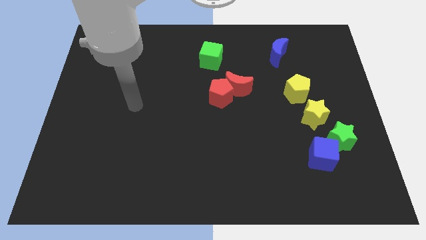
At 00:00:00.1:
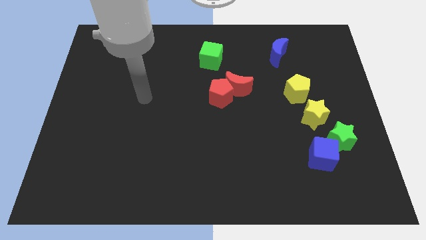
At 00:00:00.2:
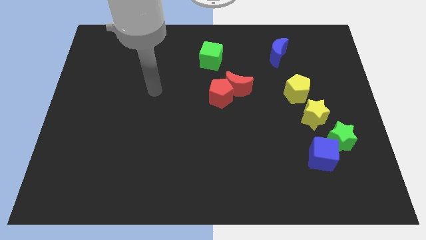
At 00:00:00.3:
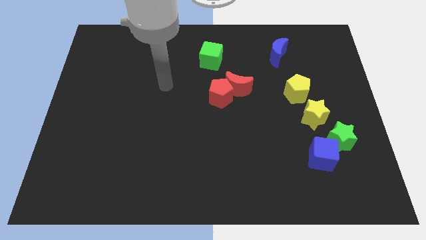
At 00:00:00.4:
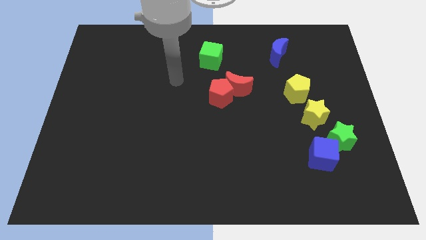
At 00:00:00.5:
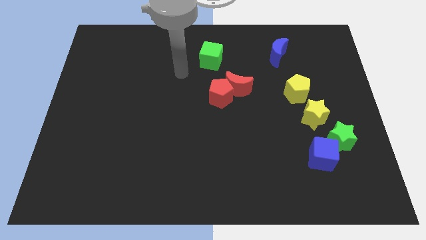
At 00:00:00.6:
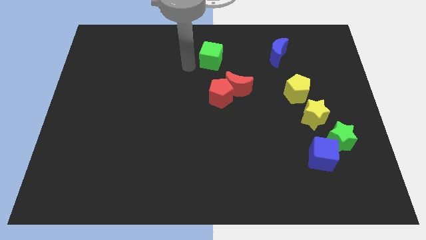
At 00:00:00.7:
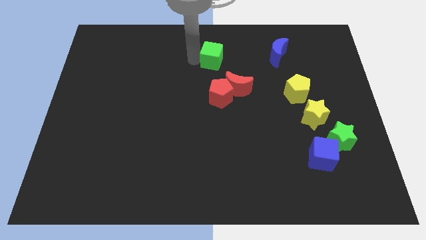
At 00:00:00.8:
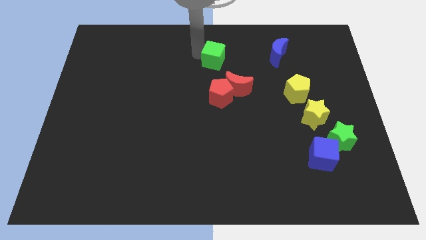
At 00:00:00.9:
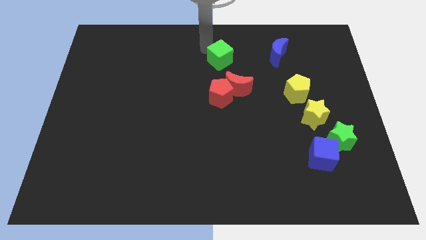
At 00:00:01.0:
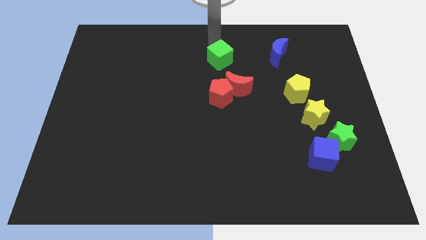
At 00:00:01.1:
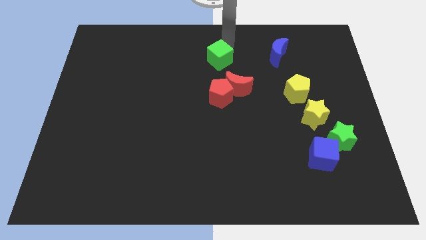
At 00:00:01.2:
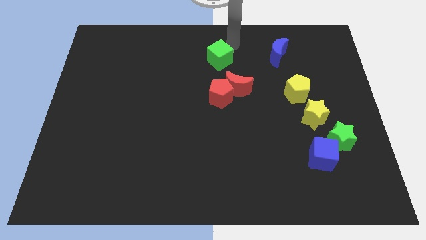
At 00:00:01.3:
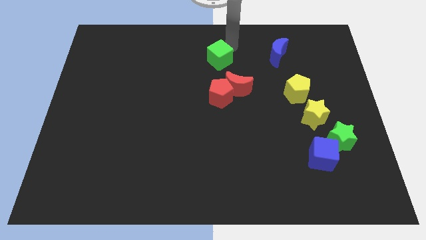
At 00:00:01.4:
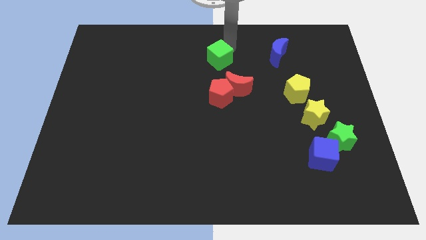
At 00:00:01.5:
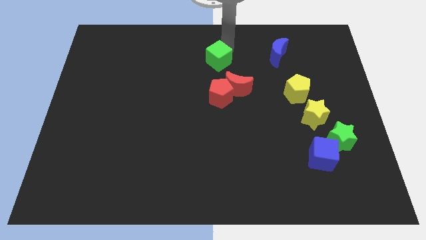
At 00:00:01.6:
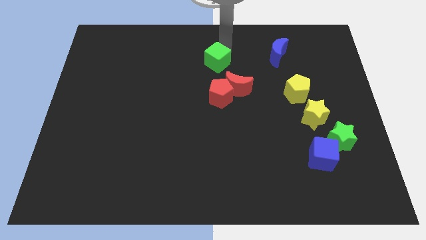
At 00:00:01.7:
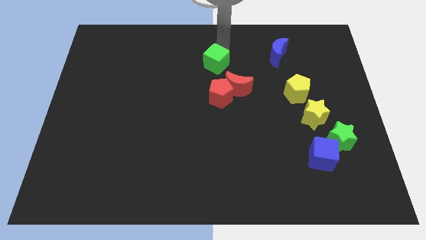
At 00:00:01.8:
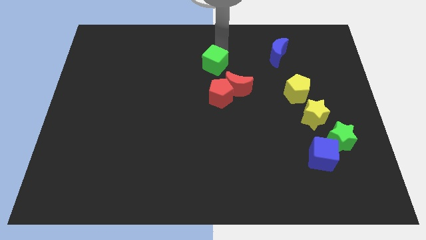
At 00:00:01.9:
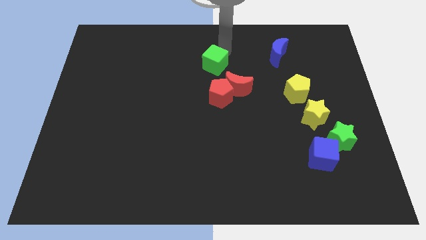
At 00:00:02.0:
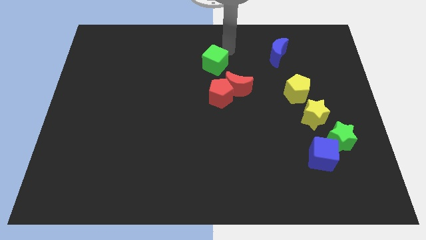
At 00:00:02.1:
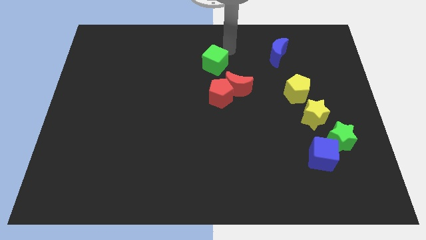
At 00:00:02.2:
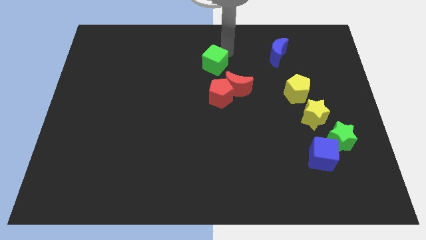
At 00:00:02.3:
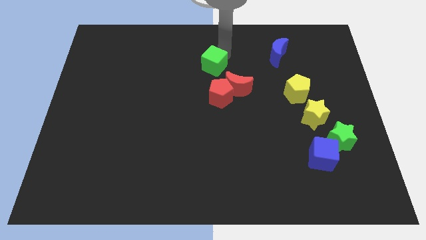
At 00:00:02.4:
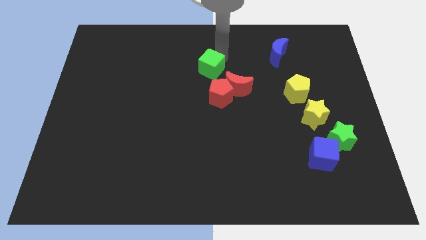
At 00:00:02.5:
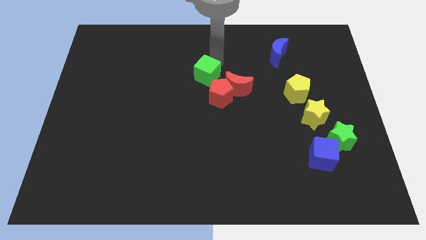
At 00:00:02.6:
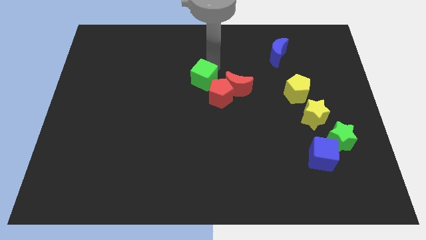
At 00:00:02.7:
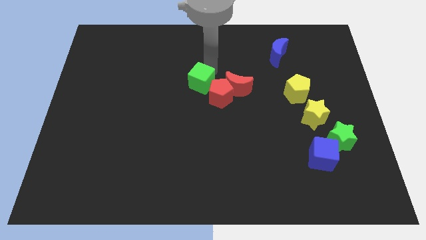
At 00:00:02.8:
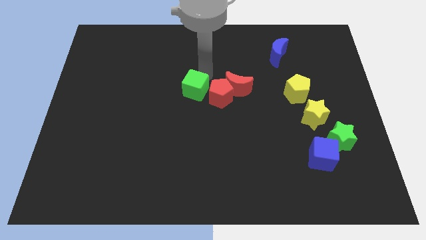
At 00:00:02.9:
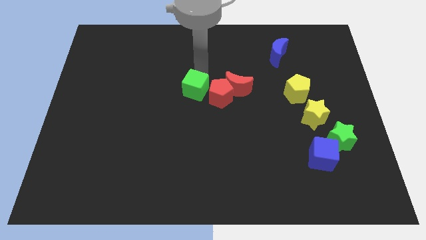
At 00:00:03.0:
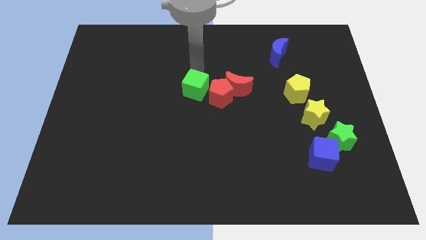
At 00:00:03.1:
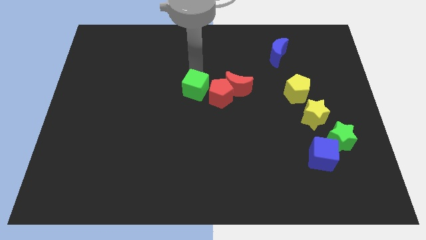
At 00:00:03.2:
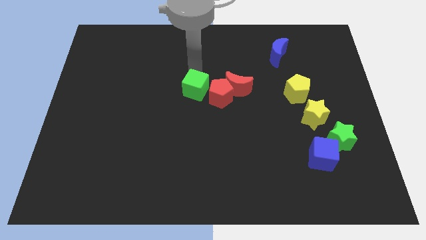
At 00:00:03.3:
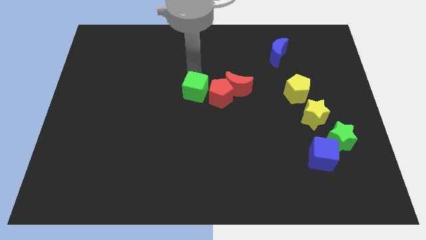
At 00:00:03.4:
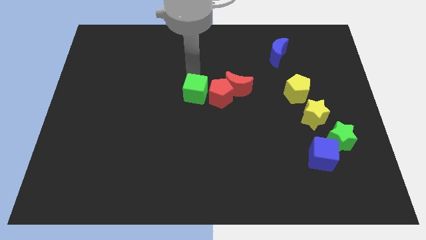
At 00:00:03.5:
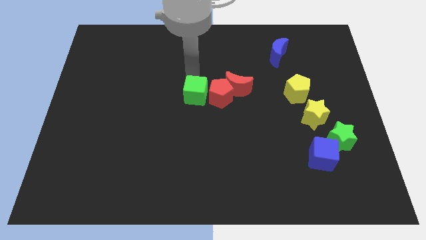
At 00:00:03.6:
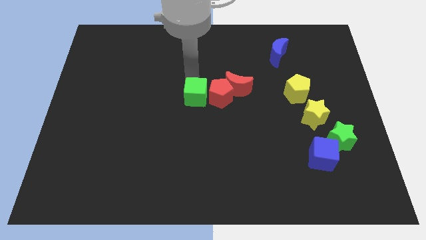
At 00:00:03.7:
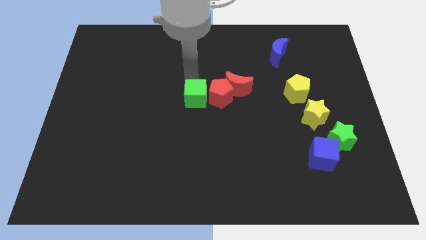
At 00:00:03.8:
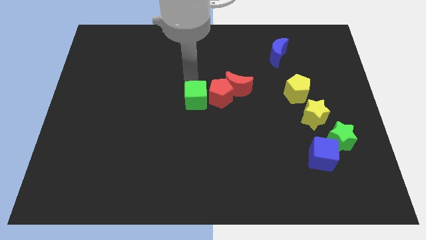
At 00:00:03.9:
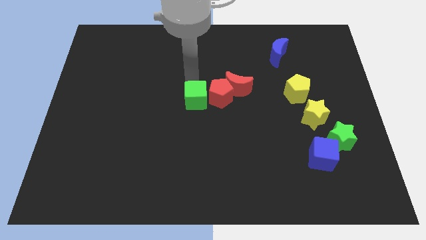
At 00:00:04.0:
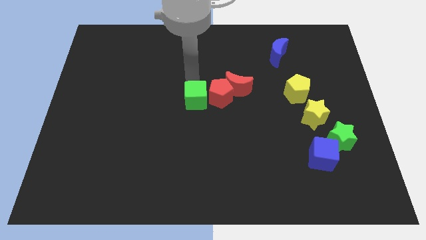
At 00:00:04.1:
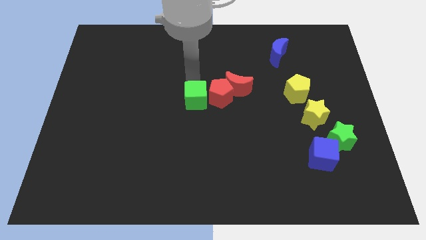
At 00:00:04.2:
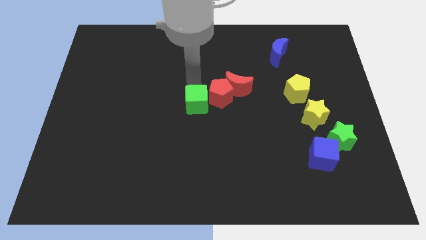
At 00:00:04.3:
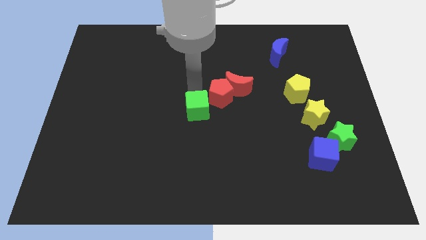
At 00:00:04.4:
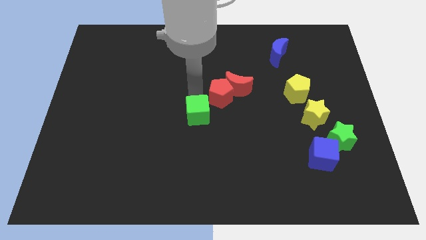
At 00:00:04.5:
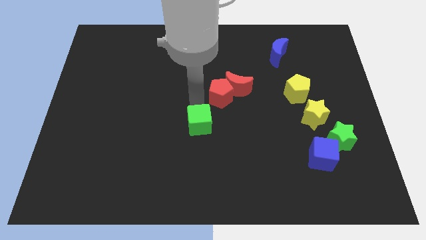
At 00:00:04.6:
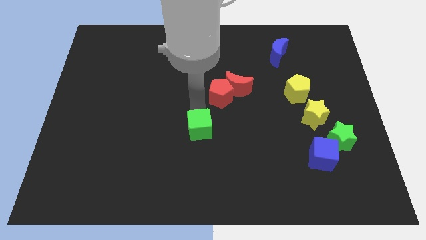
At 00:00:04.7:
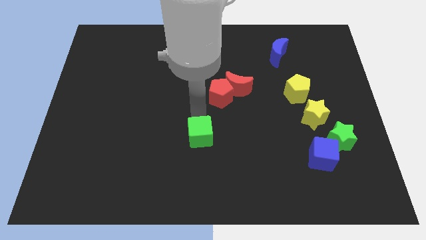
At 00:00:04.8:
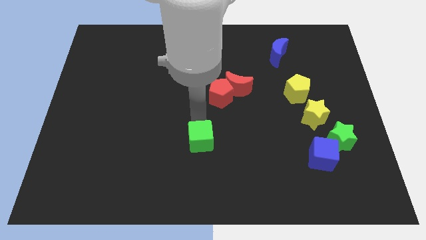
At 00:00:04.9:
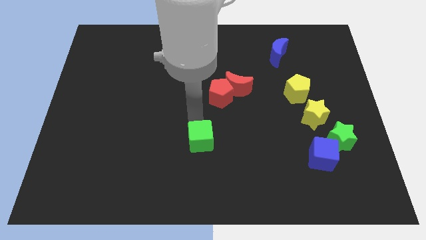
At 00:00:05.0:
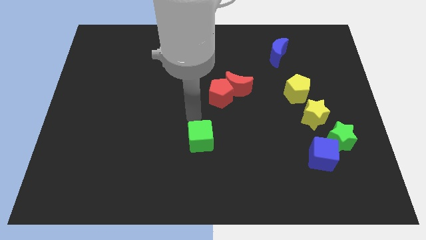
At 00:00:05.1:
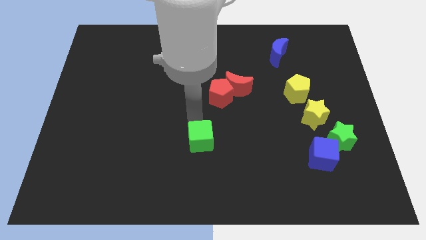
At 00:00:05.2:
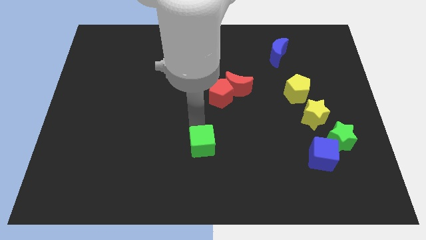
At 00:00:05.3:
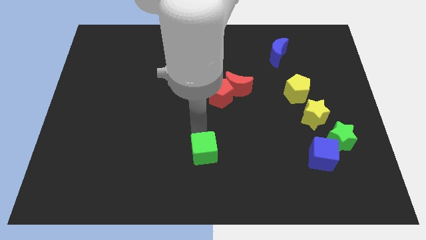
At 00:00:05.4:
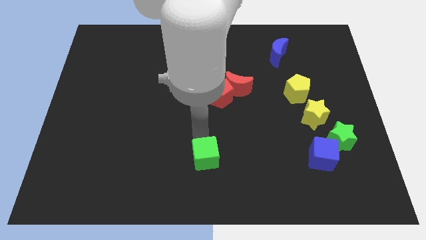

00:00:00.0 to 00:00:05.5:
push the green cube to the bottom

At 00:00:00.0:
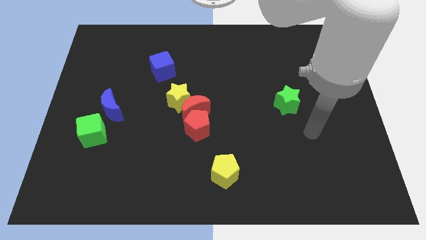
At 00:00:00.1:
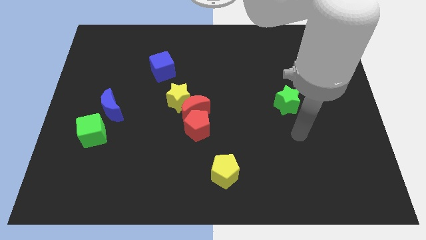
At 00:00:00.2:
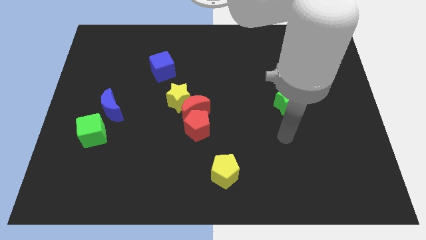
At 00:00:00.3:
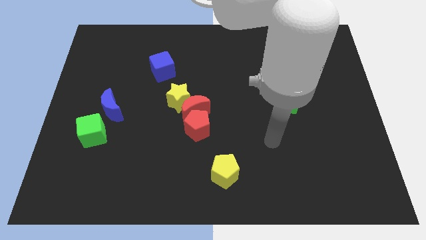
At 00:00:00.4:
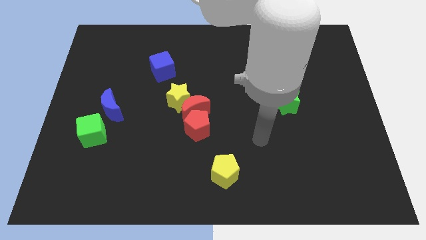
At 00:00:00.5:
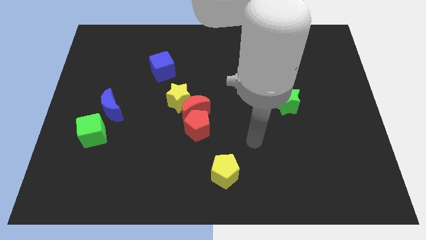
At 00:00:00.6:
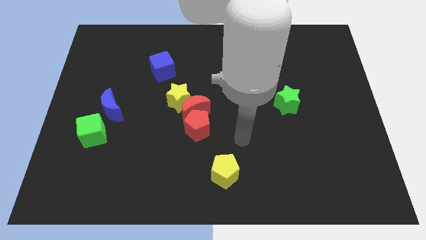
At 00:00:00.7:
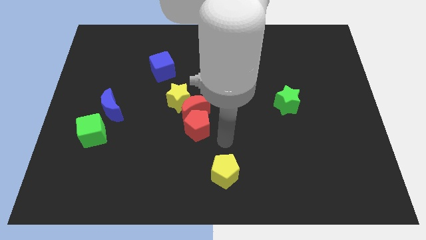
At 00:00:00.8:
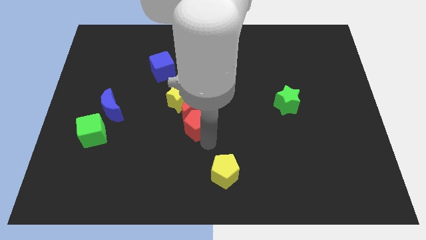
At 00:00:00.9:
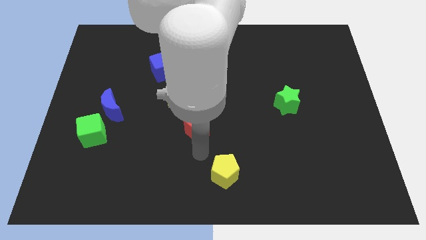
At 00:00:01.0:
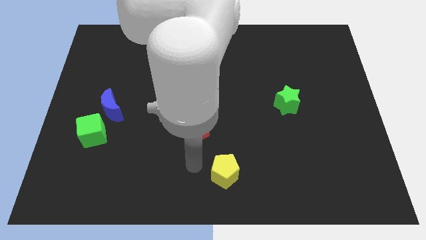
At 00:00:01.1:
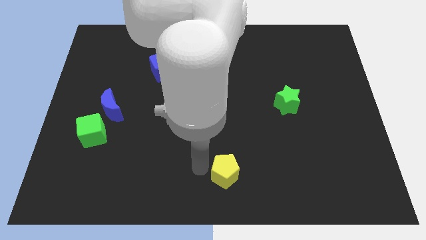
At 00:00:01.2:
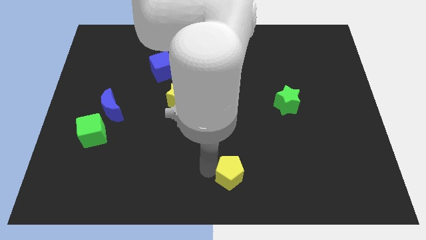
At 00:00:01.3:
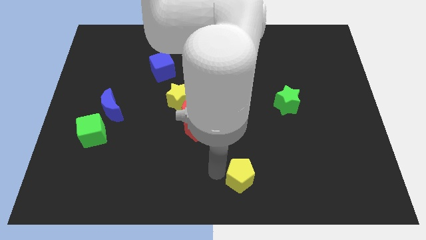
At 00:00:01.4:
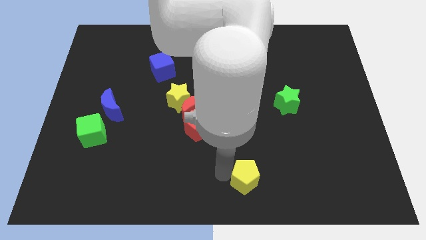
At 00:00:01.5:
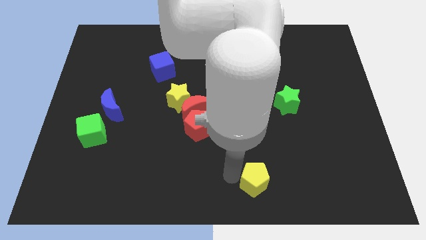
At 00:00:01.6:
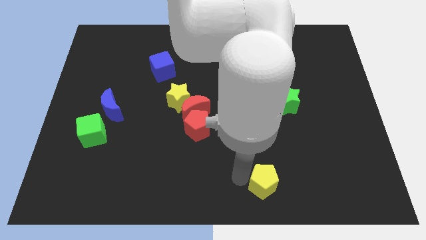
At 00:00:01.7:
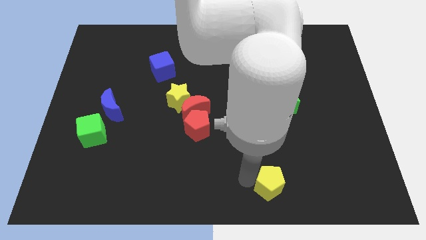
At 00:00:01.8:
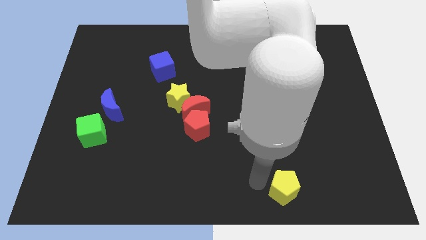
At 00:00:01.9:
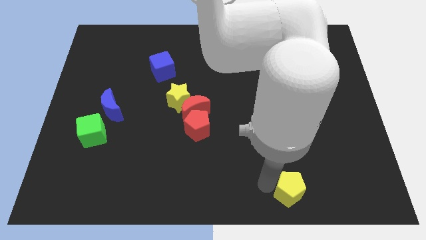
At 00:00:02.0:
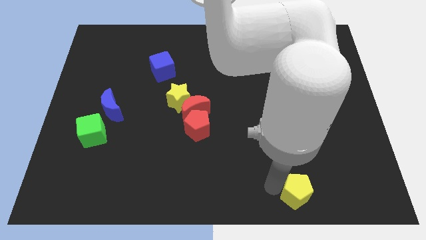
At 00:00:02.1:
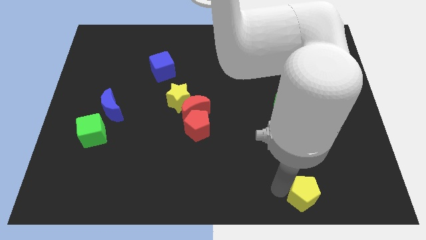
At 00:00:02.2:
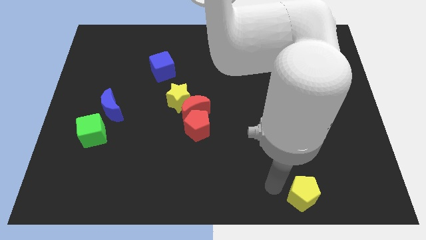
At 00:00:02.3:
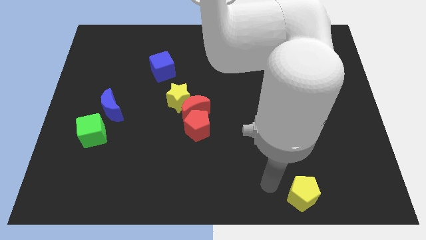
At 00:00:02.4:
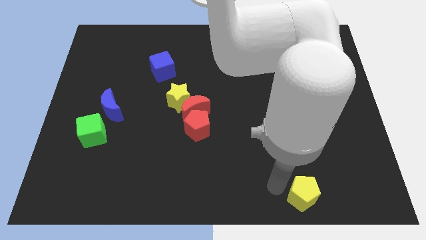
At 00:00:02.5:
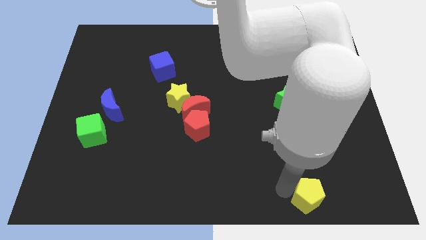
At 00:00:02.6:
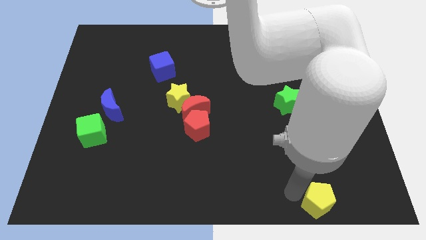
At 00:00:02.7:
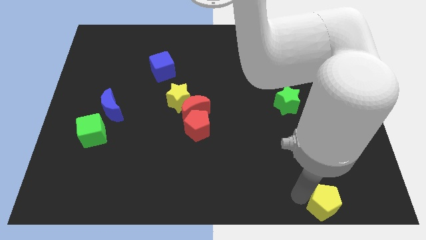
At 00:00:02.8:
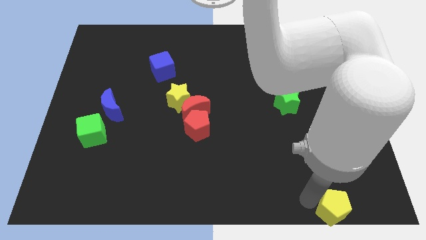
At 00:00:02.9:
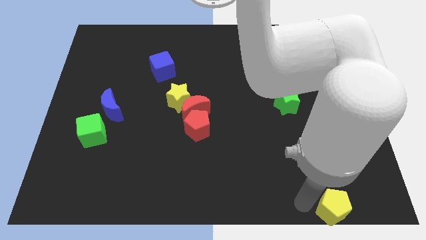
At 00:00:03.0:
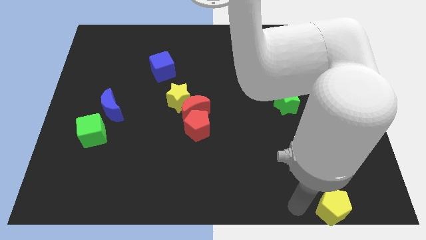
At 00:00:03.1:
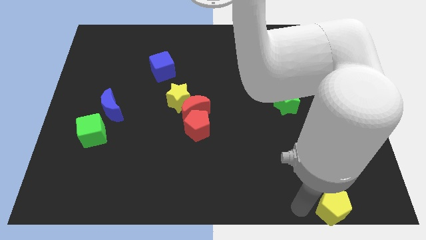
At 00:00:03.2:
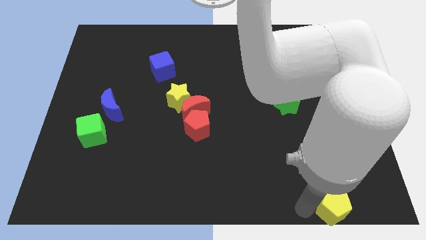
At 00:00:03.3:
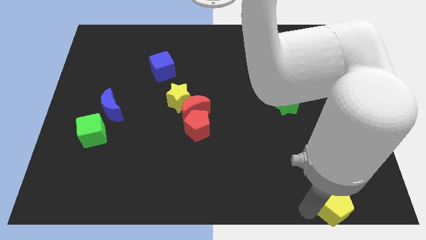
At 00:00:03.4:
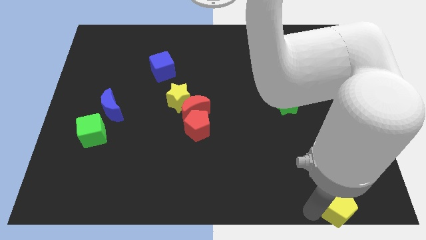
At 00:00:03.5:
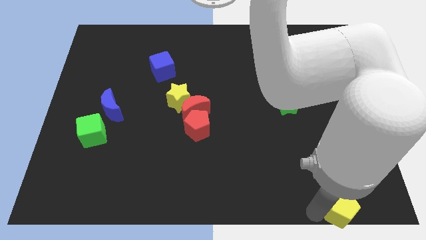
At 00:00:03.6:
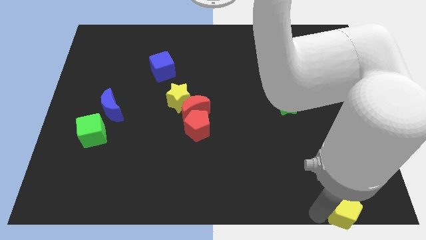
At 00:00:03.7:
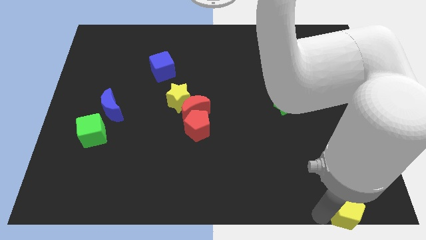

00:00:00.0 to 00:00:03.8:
put the yellow pentagon to the bottom right corner
